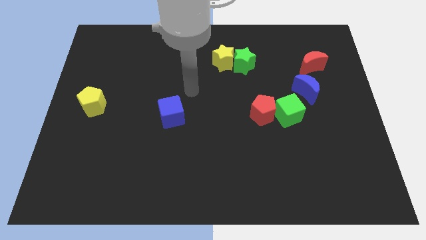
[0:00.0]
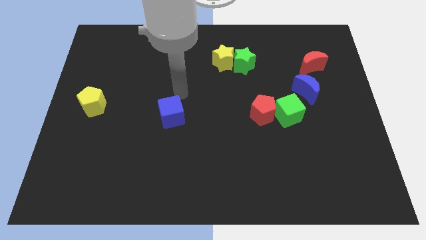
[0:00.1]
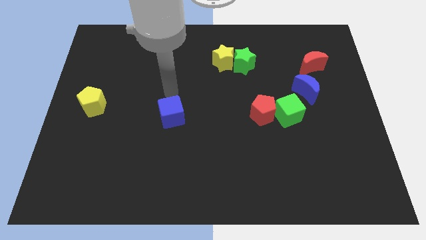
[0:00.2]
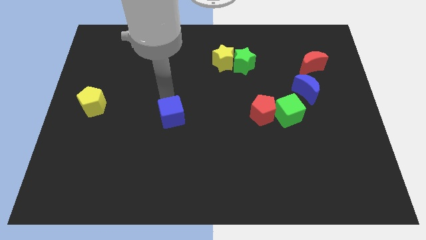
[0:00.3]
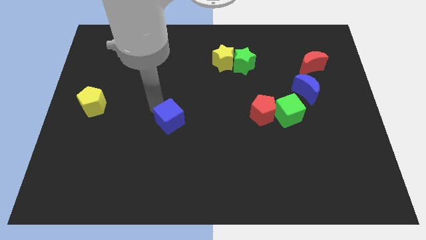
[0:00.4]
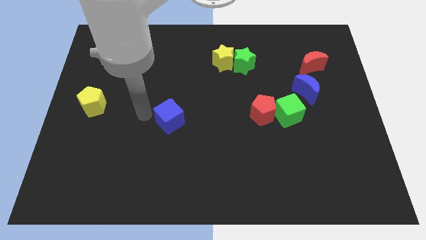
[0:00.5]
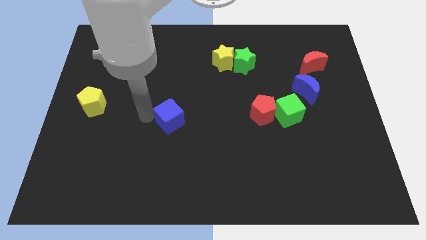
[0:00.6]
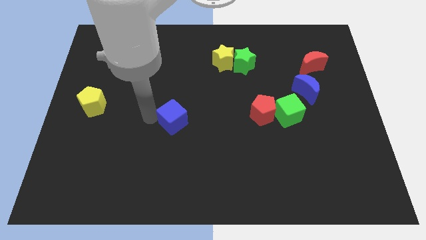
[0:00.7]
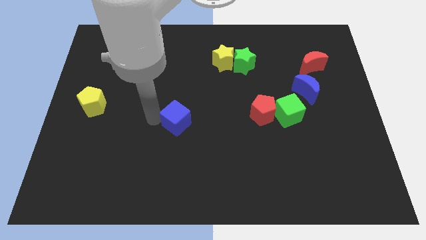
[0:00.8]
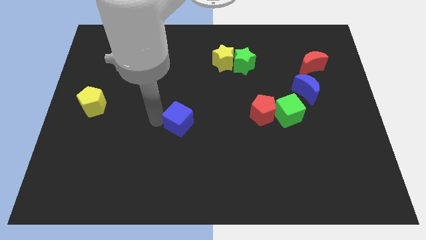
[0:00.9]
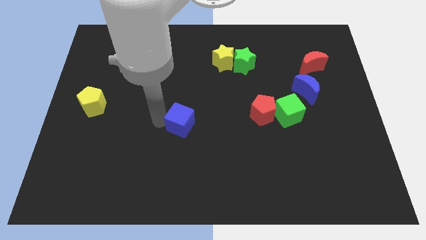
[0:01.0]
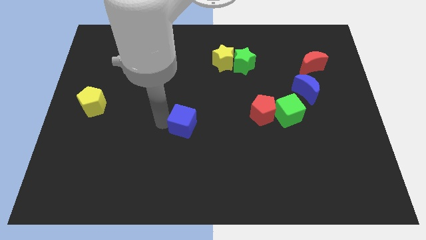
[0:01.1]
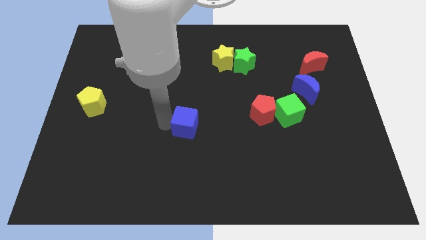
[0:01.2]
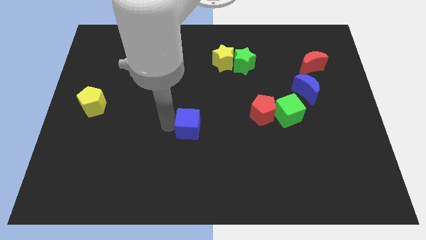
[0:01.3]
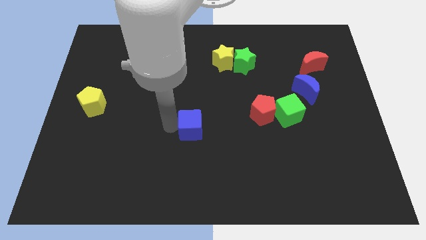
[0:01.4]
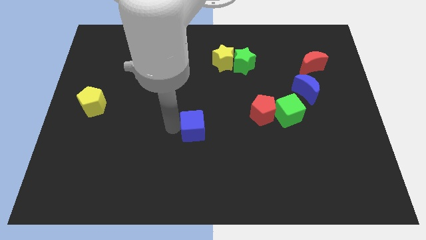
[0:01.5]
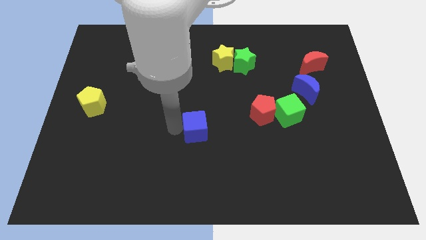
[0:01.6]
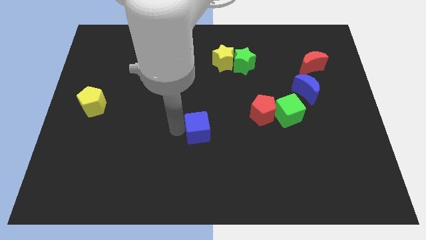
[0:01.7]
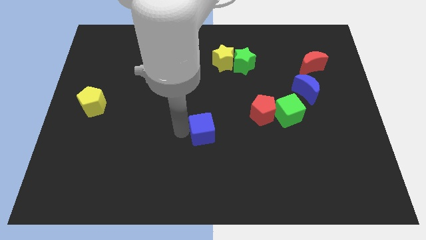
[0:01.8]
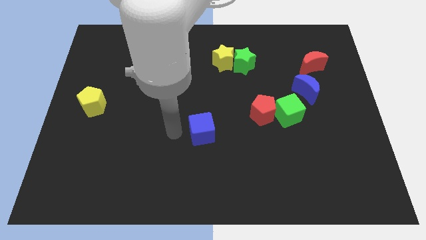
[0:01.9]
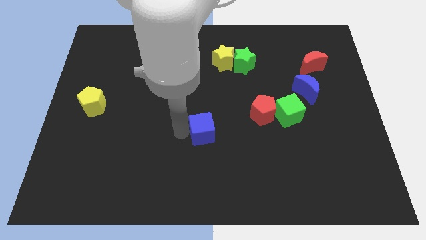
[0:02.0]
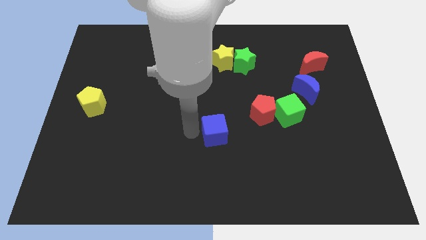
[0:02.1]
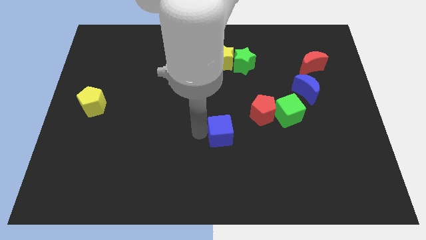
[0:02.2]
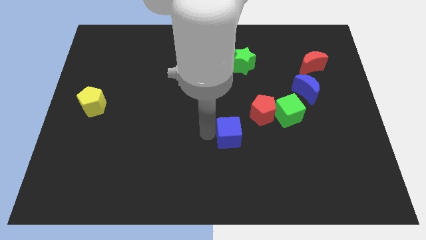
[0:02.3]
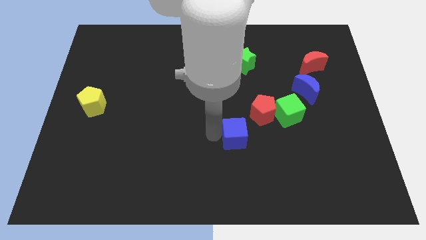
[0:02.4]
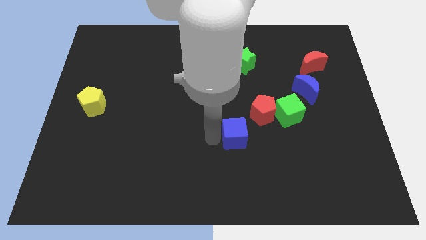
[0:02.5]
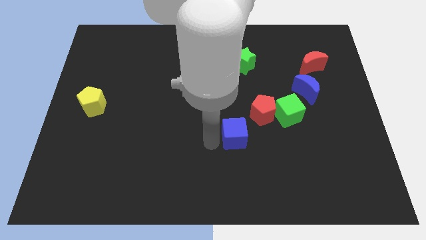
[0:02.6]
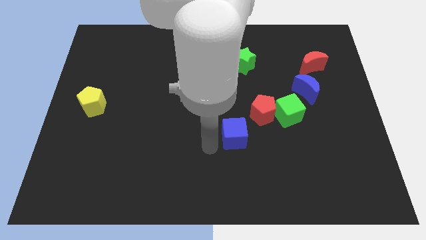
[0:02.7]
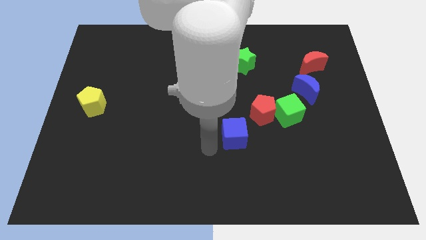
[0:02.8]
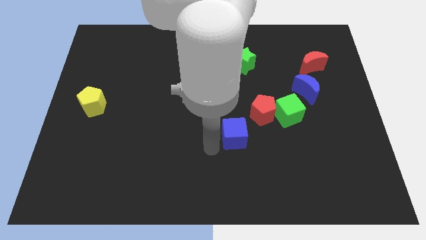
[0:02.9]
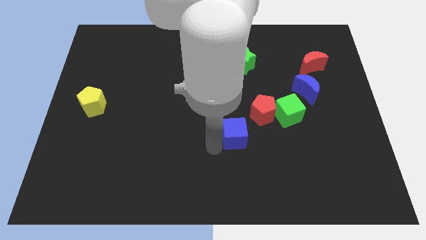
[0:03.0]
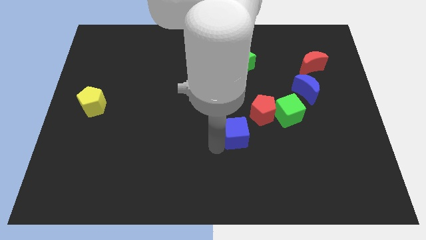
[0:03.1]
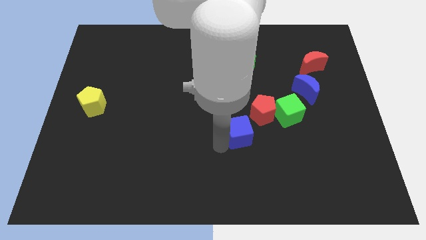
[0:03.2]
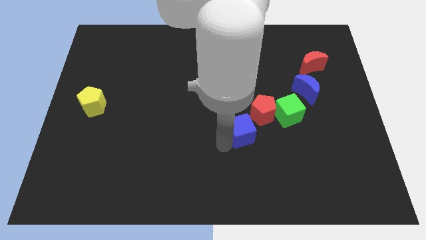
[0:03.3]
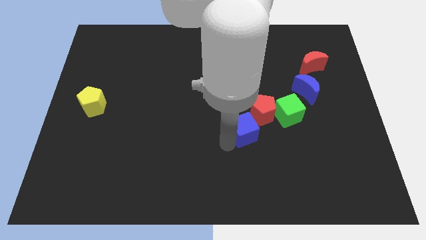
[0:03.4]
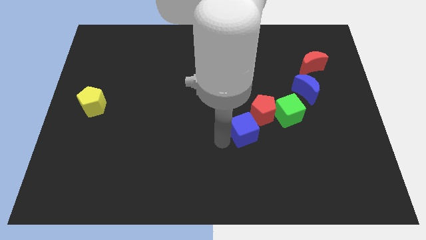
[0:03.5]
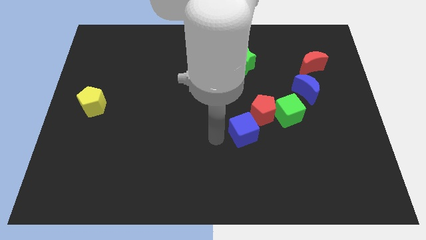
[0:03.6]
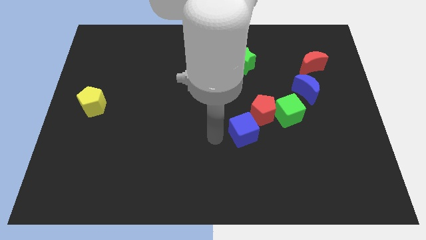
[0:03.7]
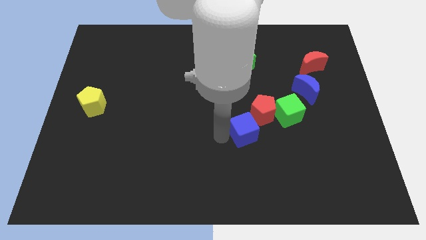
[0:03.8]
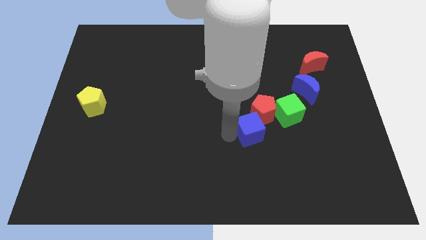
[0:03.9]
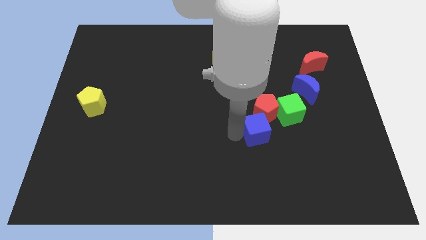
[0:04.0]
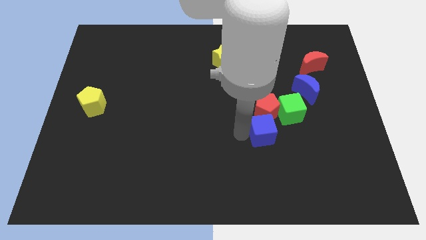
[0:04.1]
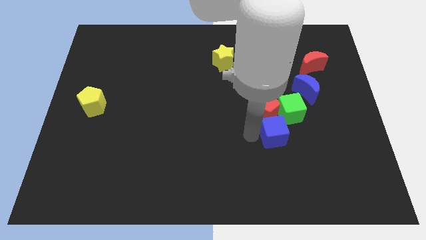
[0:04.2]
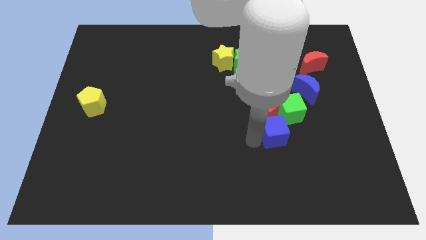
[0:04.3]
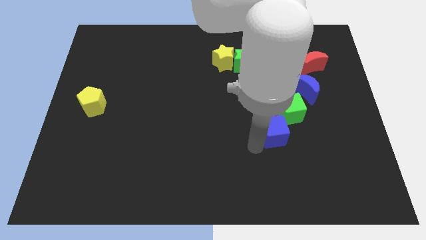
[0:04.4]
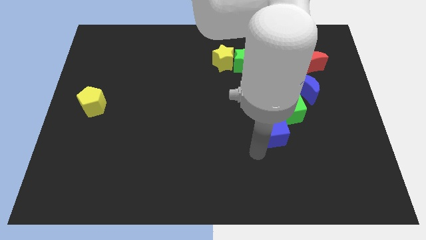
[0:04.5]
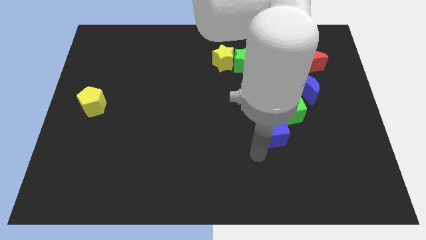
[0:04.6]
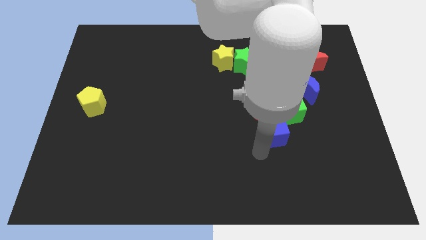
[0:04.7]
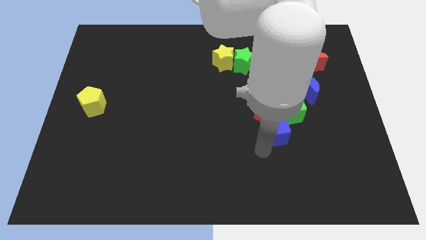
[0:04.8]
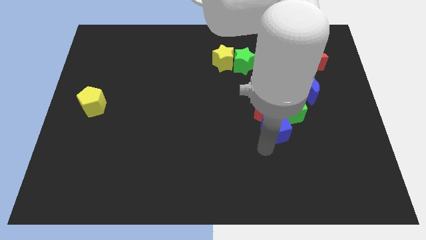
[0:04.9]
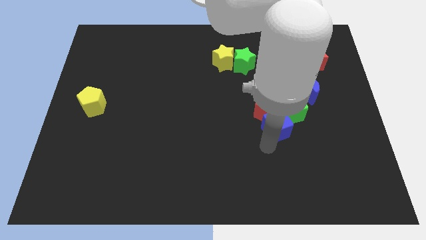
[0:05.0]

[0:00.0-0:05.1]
put the blue cube next to the green cube

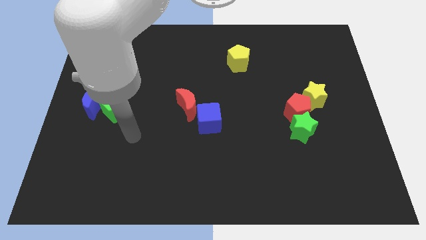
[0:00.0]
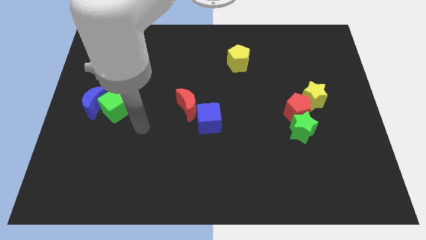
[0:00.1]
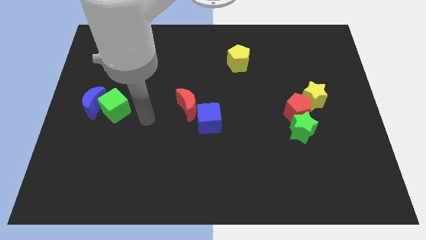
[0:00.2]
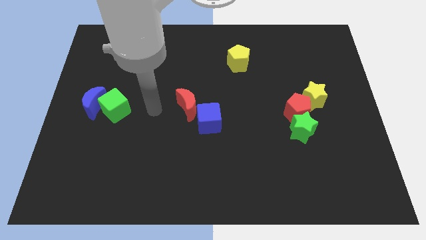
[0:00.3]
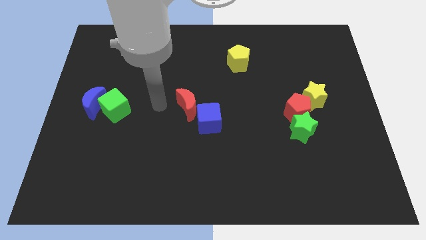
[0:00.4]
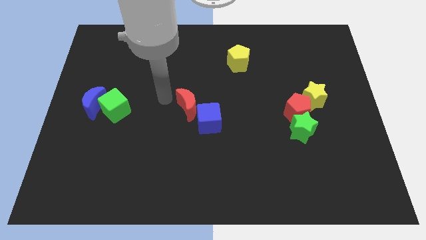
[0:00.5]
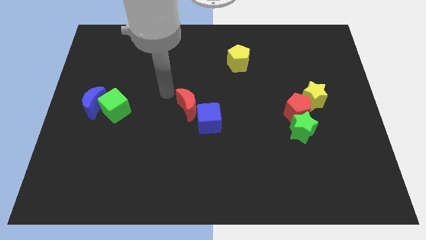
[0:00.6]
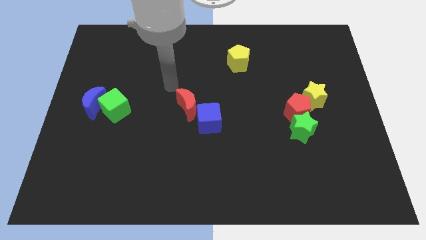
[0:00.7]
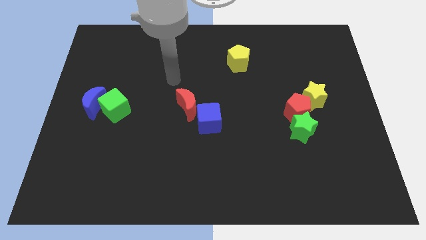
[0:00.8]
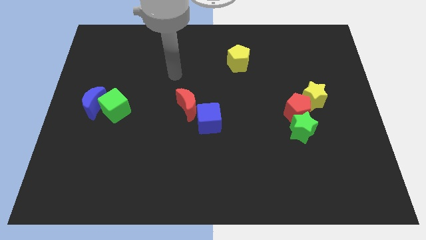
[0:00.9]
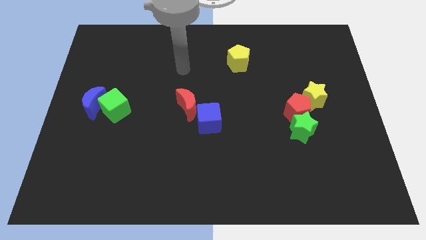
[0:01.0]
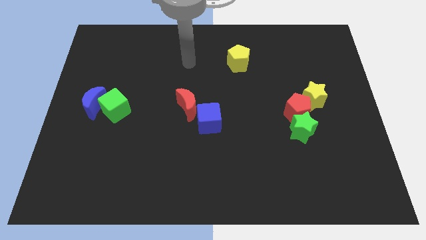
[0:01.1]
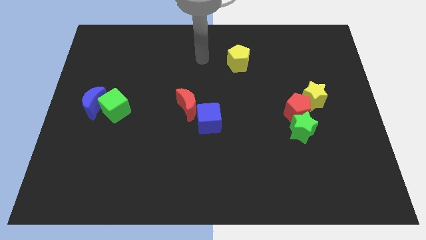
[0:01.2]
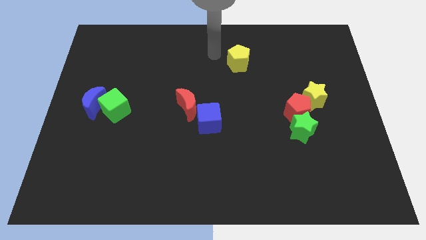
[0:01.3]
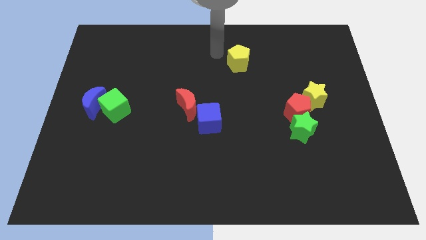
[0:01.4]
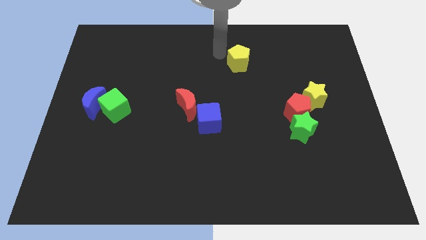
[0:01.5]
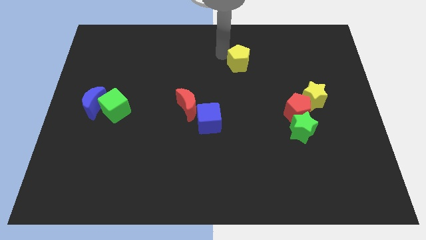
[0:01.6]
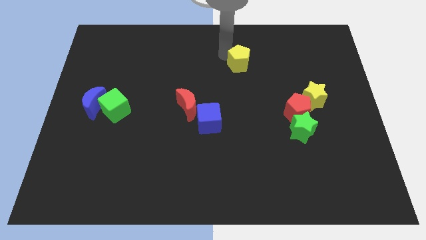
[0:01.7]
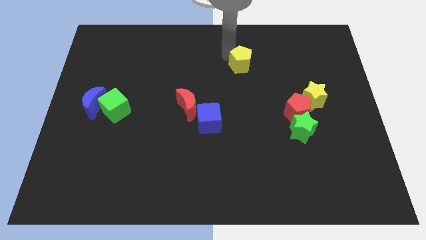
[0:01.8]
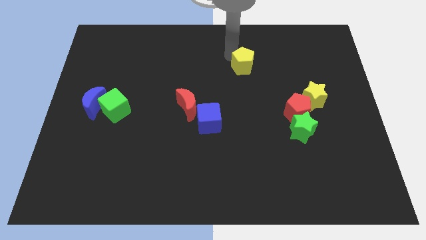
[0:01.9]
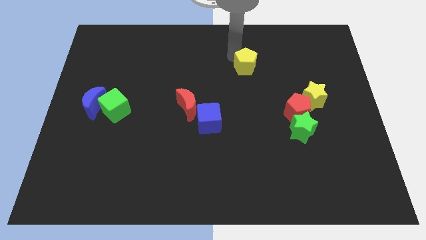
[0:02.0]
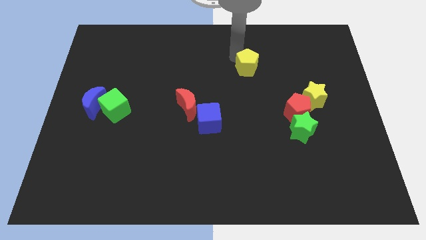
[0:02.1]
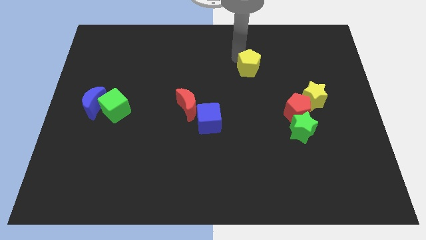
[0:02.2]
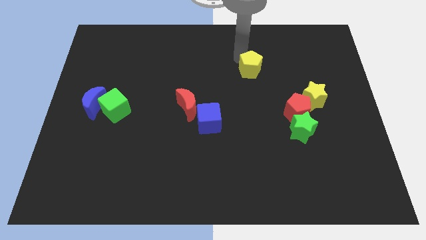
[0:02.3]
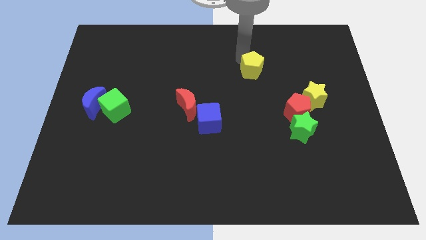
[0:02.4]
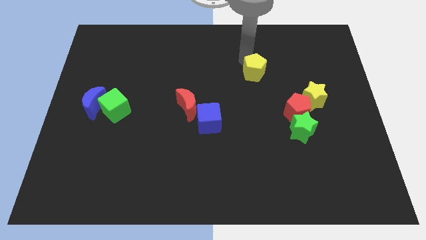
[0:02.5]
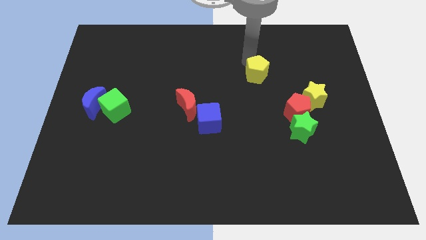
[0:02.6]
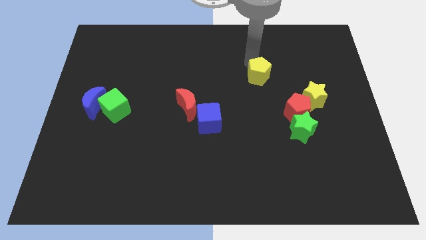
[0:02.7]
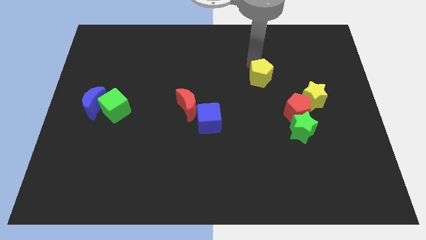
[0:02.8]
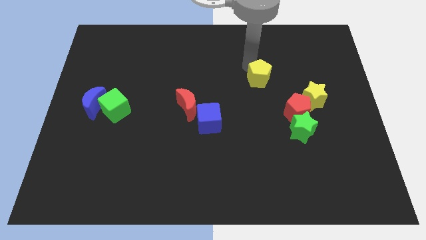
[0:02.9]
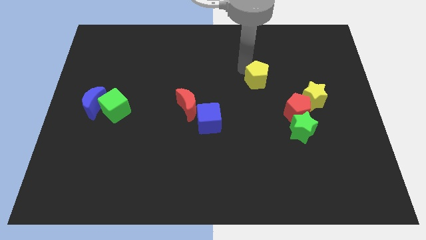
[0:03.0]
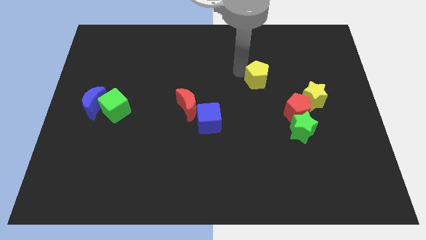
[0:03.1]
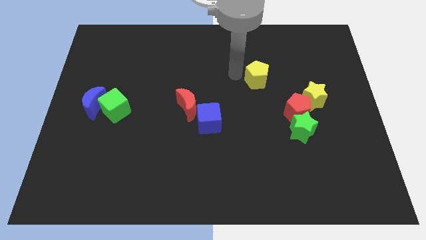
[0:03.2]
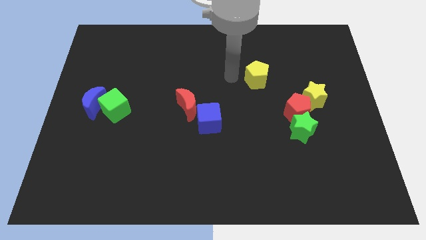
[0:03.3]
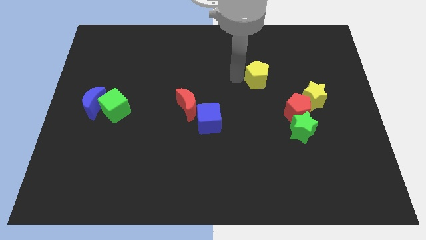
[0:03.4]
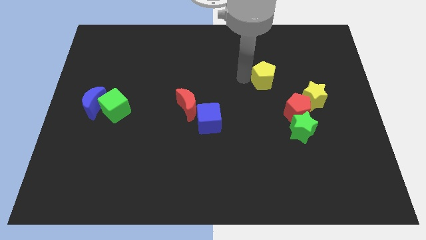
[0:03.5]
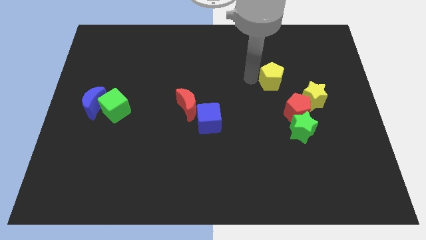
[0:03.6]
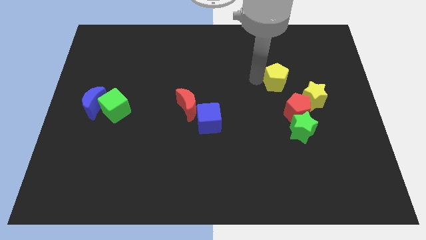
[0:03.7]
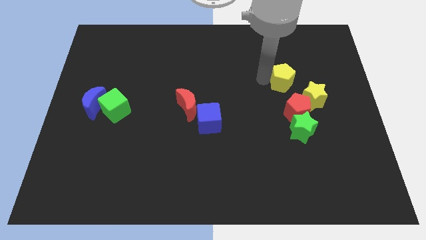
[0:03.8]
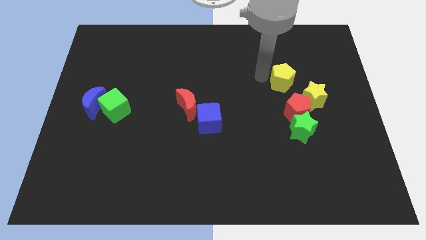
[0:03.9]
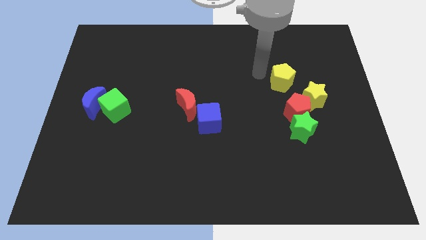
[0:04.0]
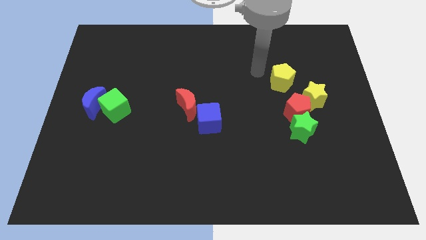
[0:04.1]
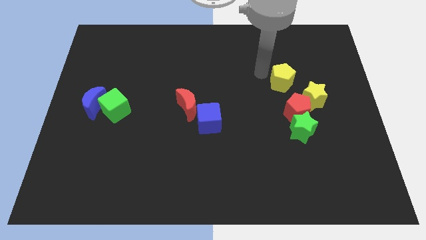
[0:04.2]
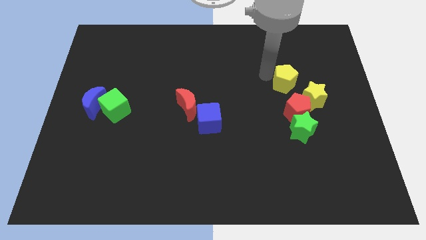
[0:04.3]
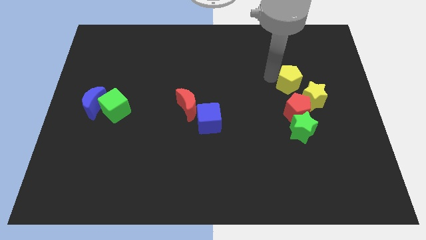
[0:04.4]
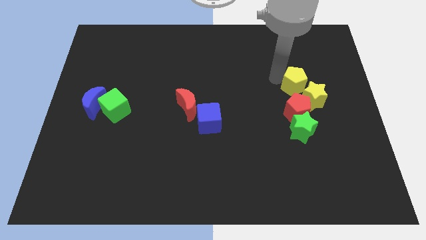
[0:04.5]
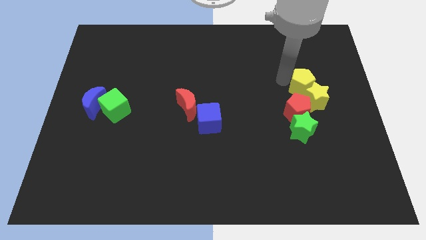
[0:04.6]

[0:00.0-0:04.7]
push the yellow pentagon to the yellow star
